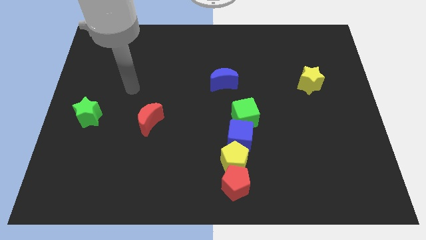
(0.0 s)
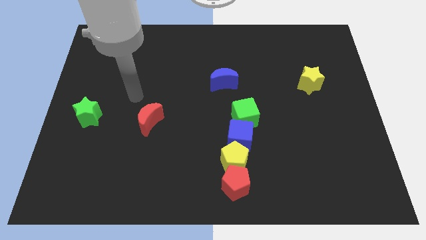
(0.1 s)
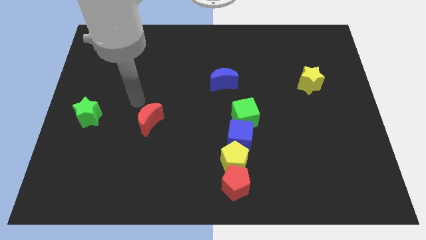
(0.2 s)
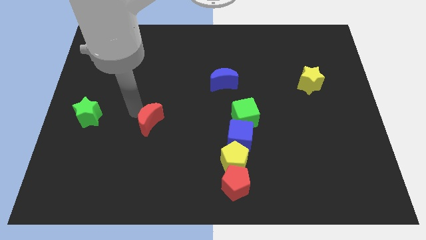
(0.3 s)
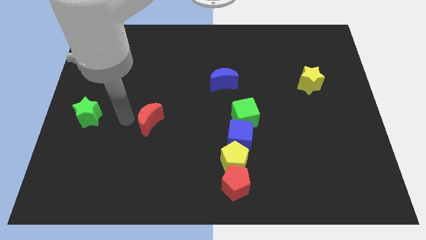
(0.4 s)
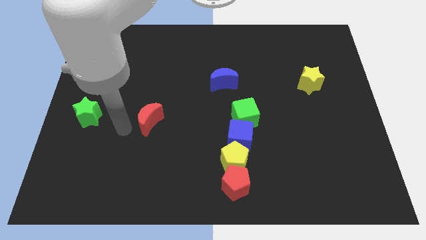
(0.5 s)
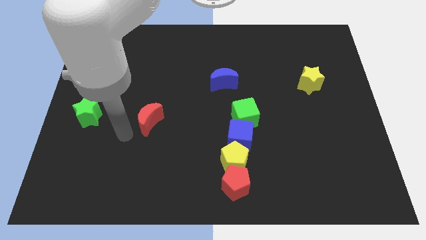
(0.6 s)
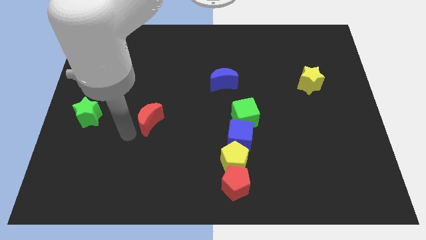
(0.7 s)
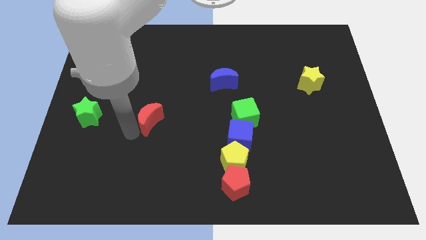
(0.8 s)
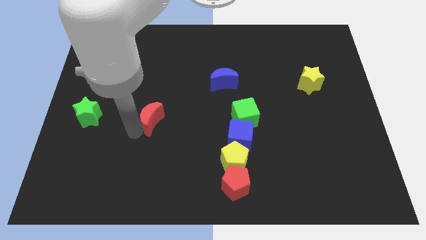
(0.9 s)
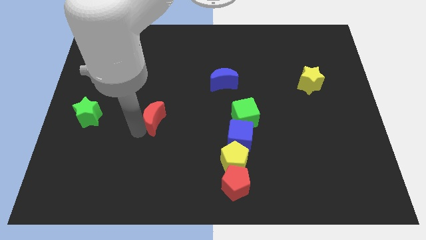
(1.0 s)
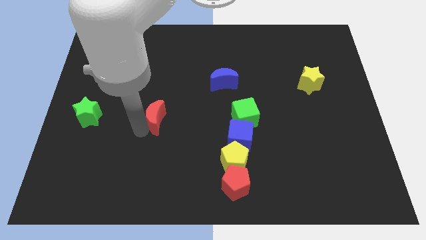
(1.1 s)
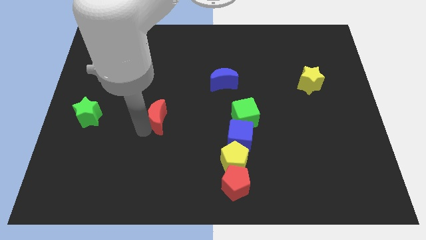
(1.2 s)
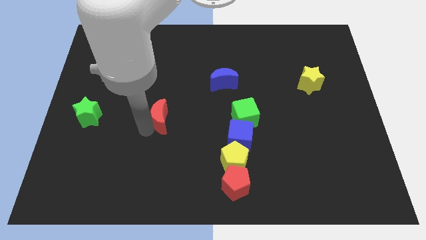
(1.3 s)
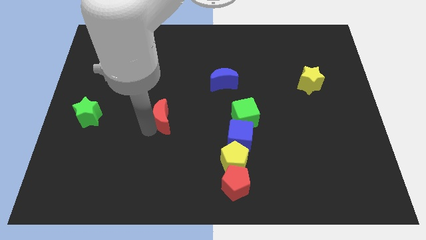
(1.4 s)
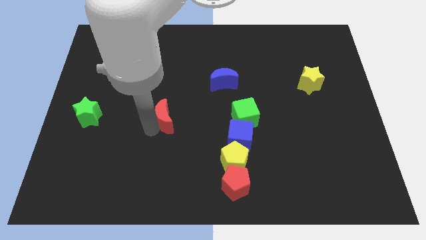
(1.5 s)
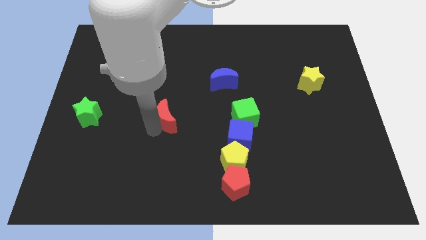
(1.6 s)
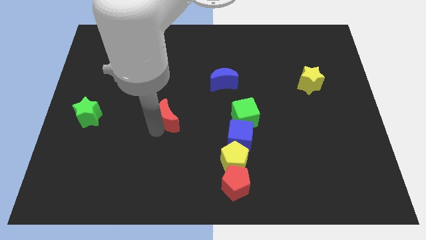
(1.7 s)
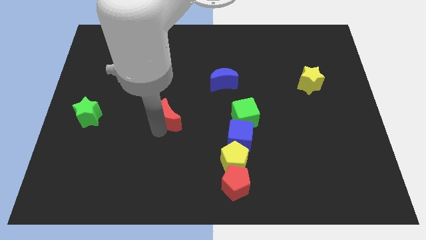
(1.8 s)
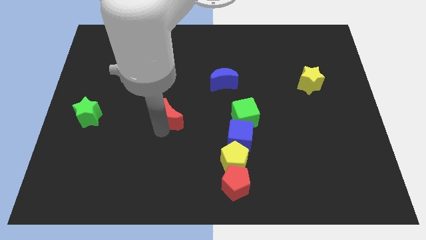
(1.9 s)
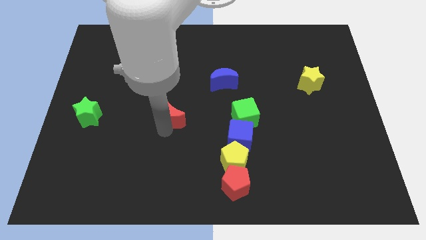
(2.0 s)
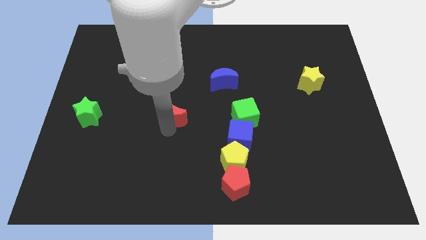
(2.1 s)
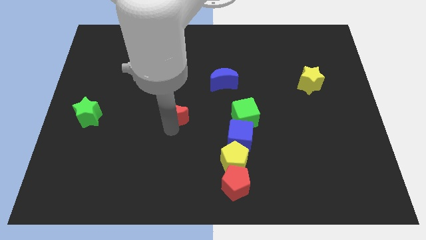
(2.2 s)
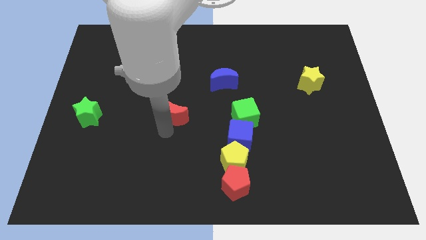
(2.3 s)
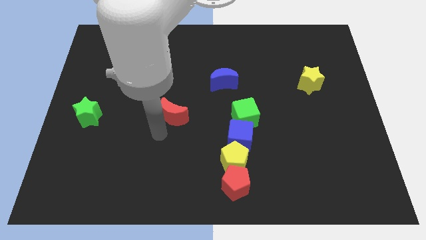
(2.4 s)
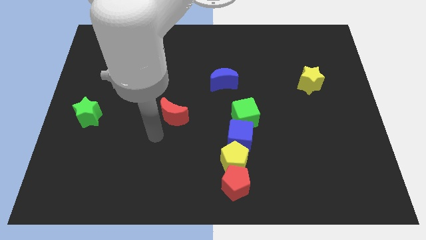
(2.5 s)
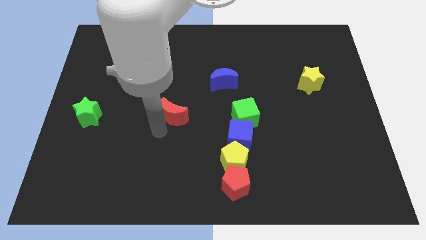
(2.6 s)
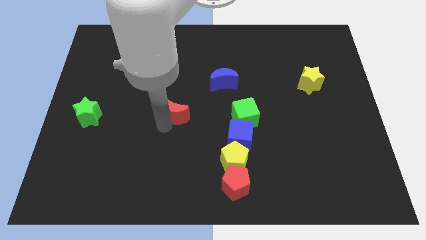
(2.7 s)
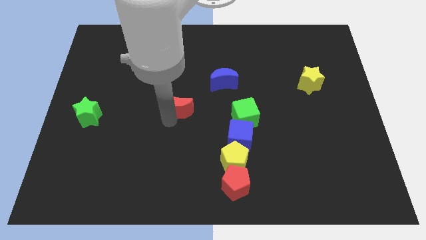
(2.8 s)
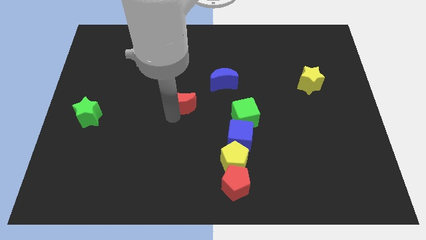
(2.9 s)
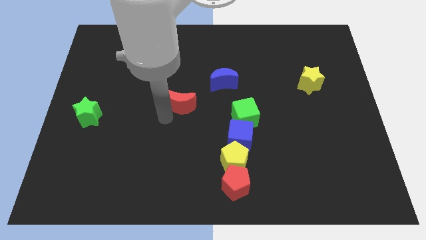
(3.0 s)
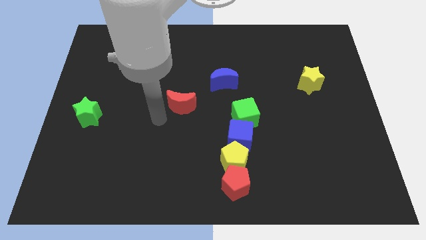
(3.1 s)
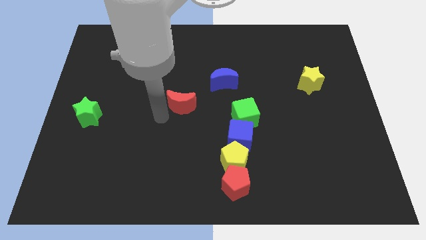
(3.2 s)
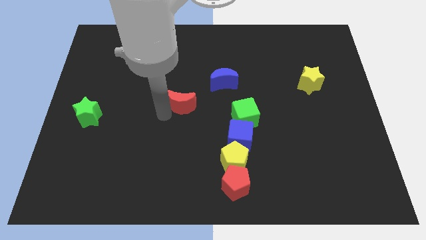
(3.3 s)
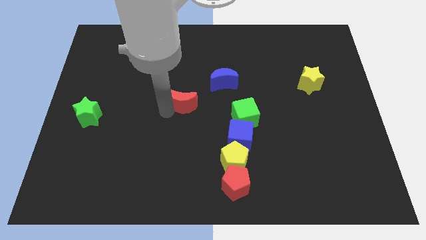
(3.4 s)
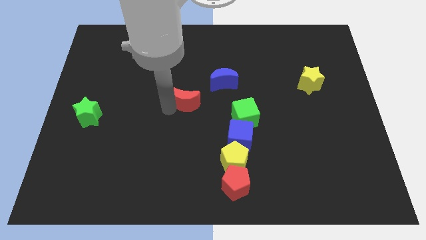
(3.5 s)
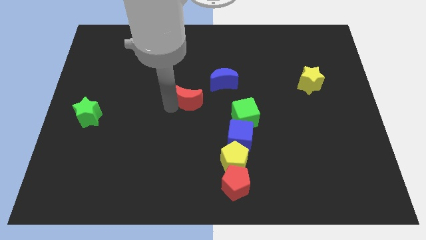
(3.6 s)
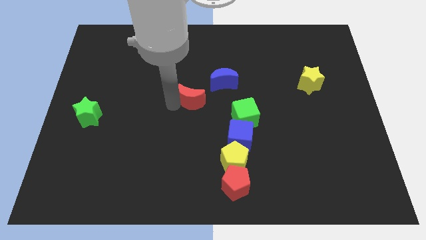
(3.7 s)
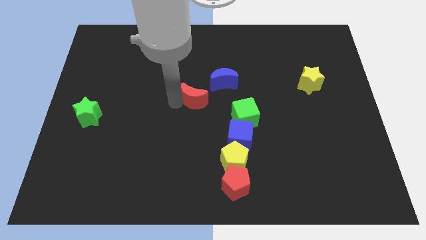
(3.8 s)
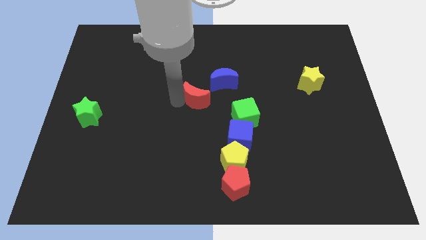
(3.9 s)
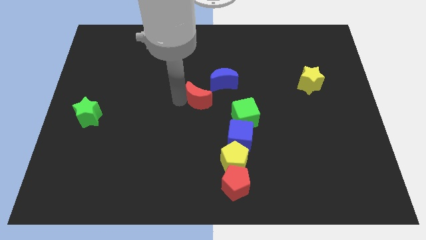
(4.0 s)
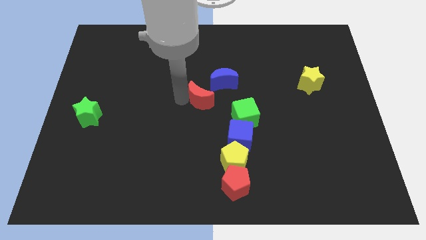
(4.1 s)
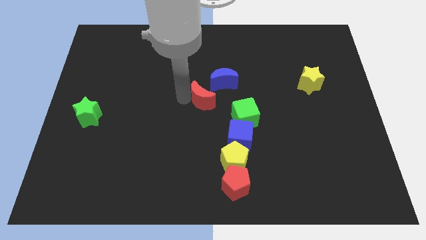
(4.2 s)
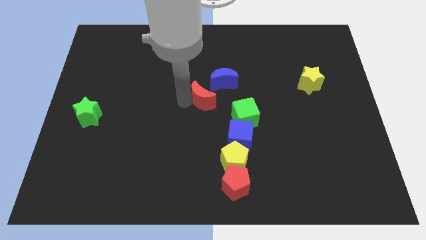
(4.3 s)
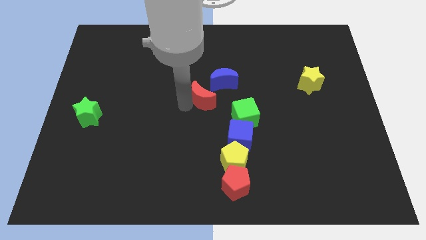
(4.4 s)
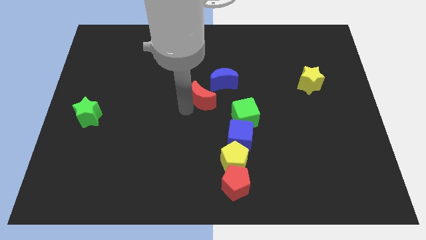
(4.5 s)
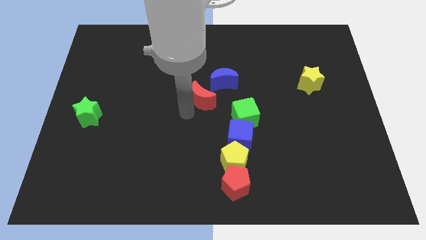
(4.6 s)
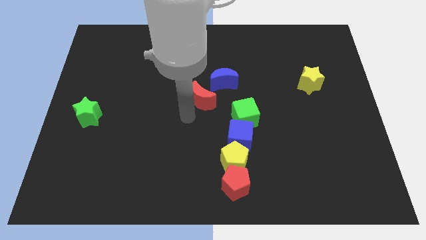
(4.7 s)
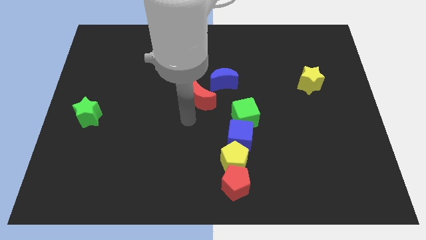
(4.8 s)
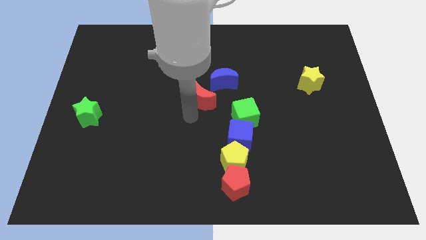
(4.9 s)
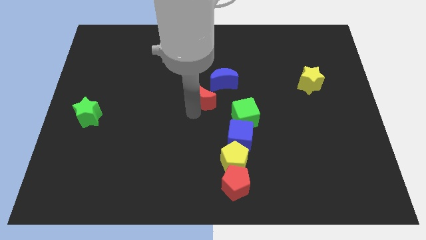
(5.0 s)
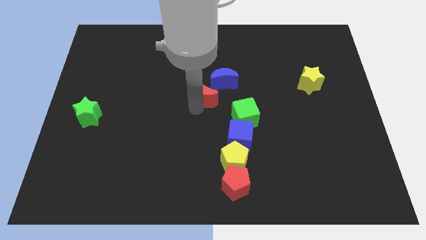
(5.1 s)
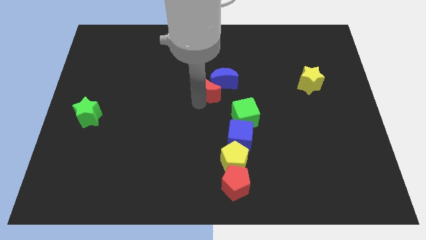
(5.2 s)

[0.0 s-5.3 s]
put the red moon close to the blue moon

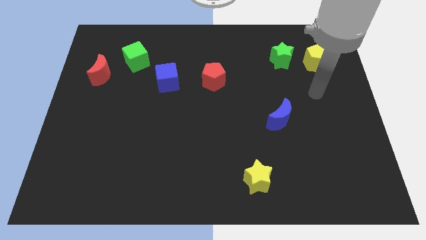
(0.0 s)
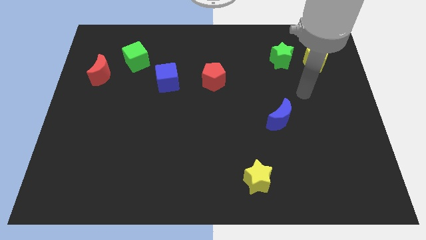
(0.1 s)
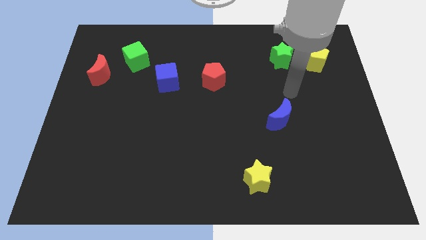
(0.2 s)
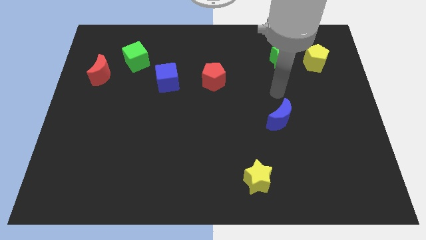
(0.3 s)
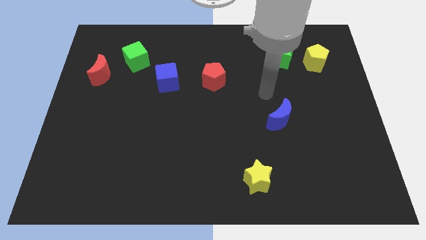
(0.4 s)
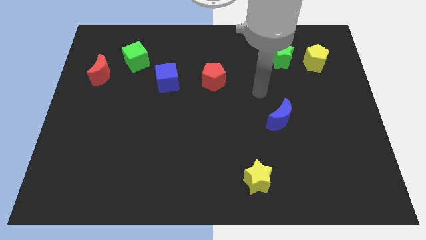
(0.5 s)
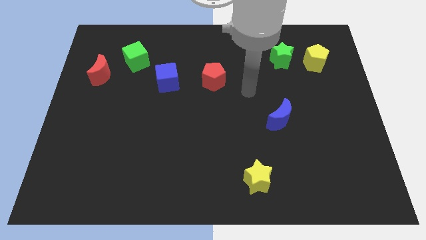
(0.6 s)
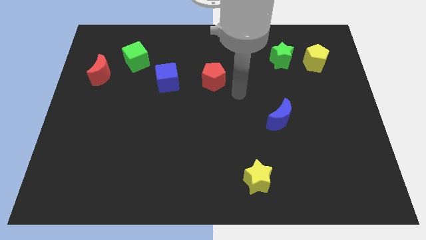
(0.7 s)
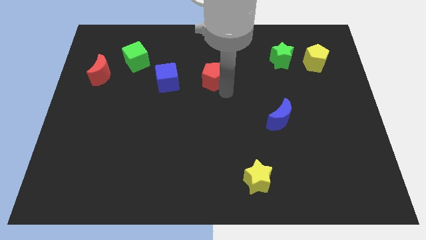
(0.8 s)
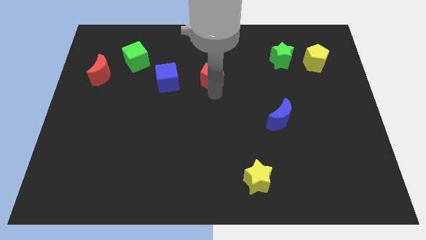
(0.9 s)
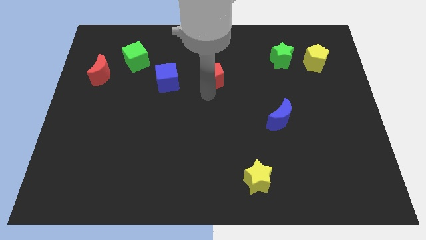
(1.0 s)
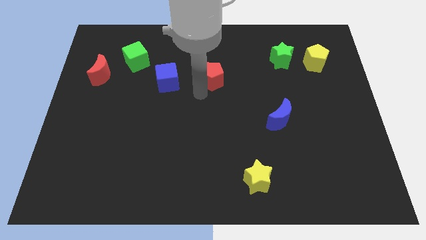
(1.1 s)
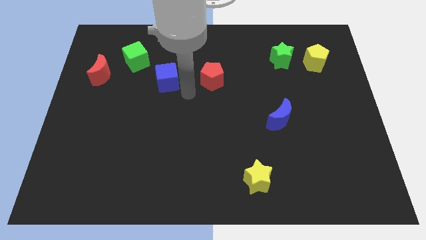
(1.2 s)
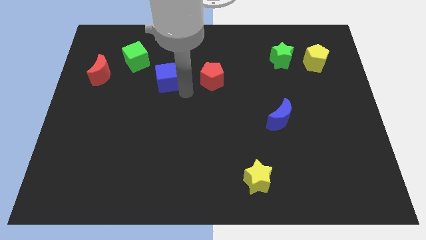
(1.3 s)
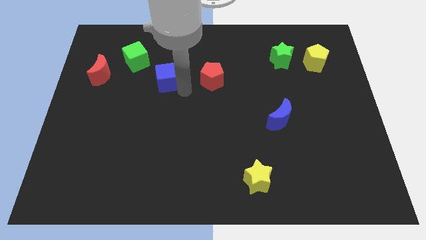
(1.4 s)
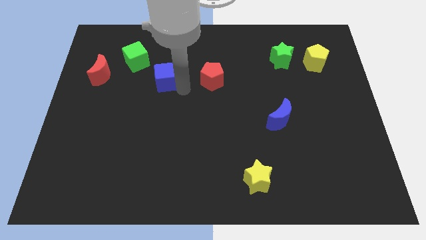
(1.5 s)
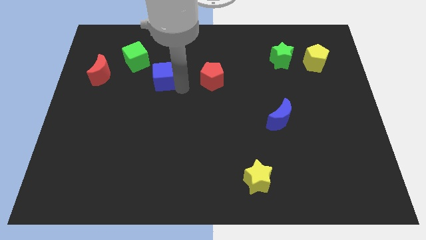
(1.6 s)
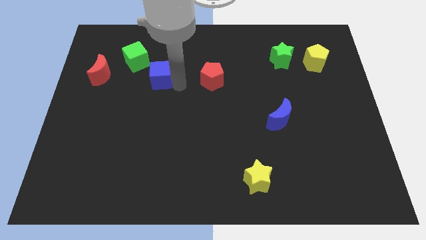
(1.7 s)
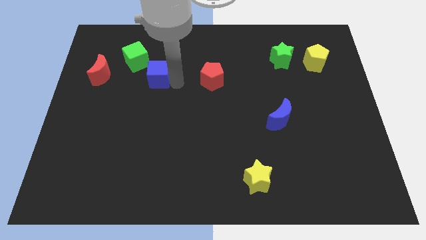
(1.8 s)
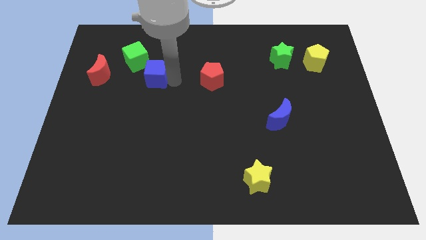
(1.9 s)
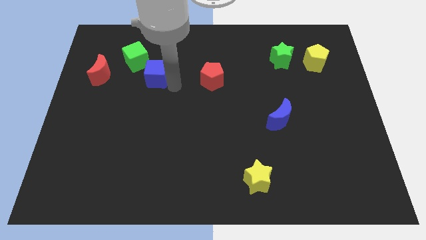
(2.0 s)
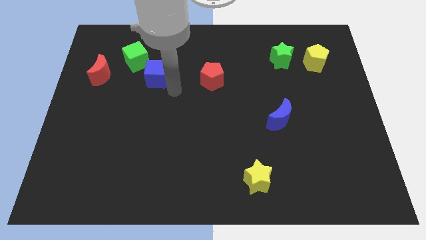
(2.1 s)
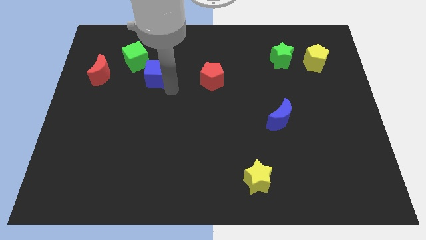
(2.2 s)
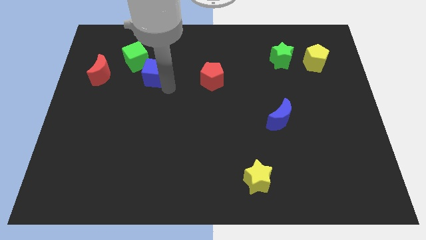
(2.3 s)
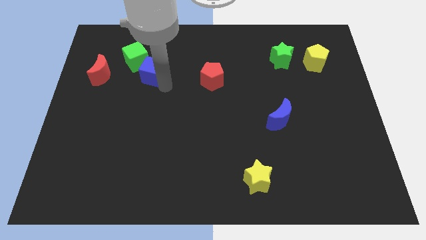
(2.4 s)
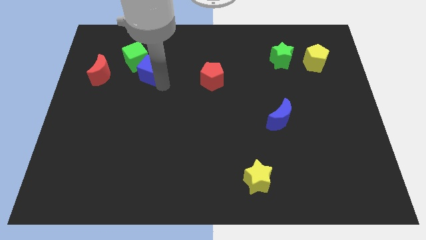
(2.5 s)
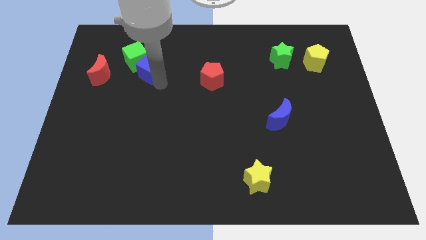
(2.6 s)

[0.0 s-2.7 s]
put the blue cube close to the green cube
